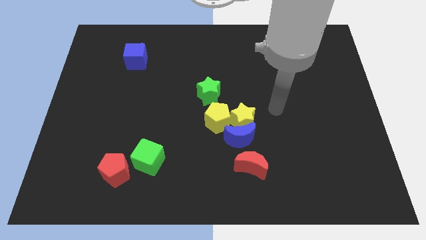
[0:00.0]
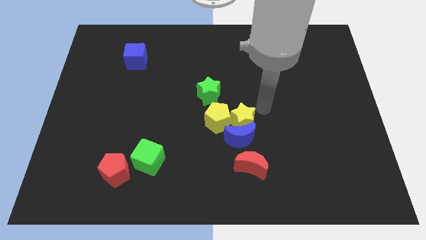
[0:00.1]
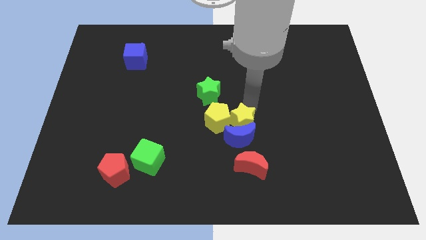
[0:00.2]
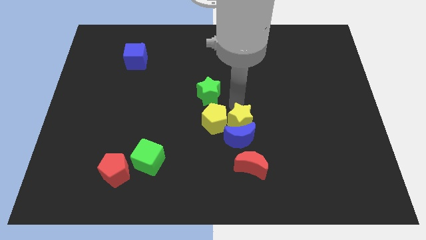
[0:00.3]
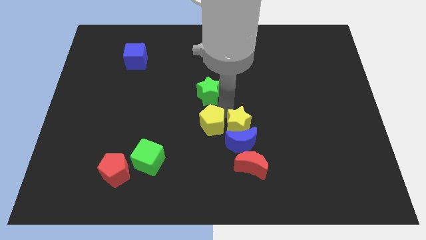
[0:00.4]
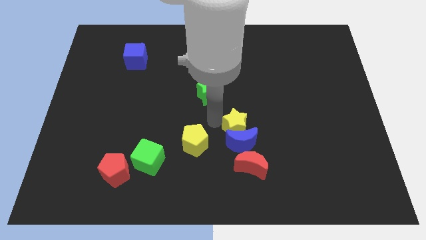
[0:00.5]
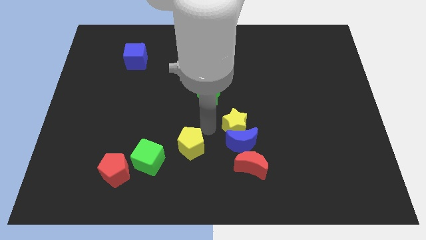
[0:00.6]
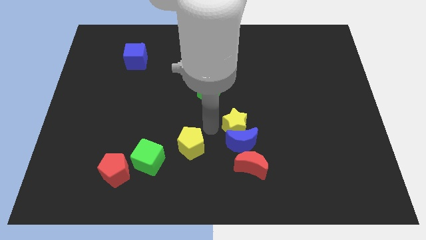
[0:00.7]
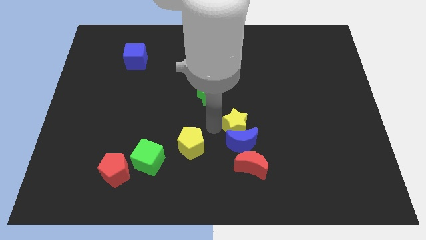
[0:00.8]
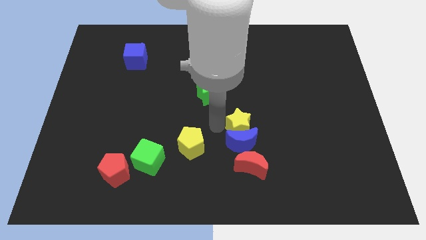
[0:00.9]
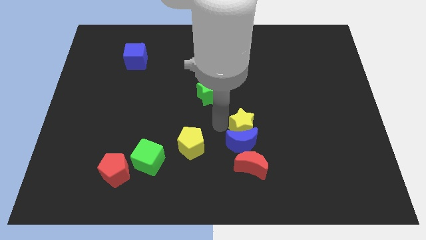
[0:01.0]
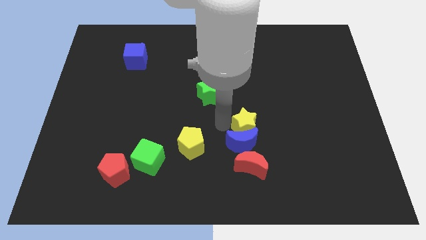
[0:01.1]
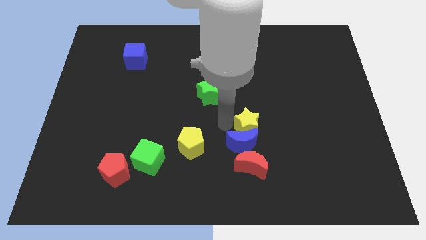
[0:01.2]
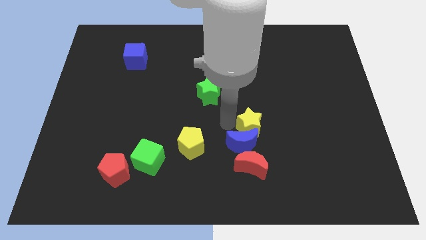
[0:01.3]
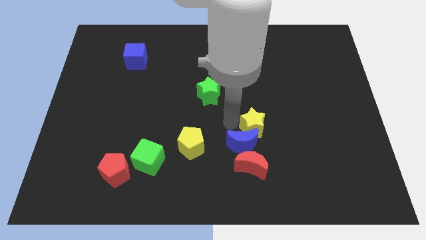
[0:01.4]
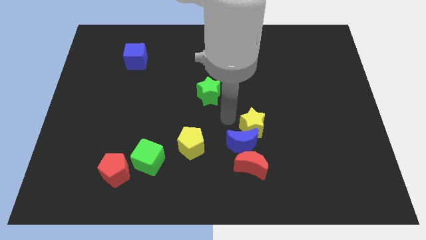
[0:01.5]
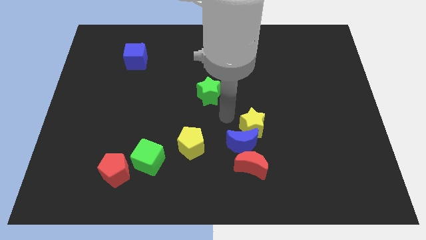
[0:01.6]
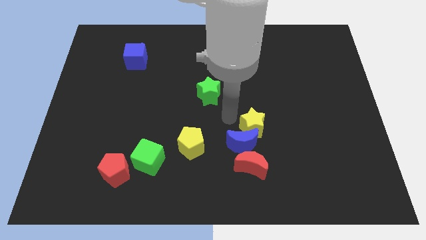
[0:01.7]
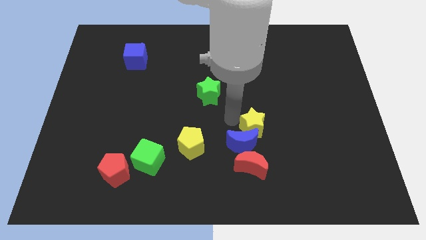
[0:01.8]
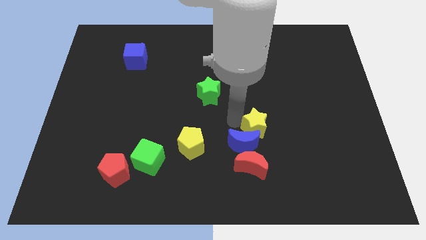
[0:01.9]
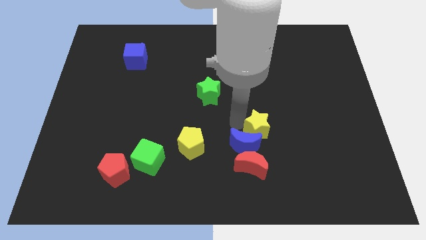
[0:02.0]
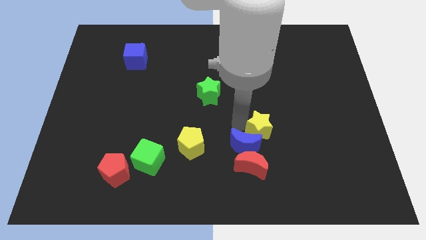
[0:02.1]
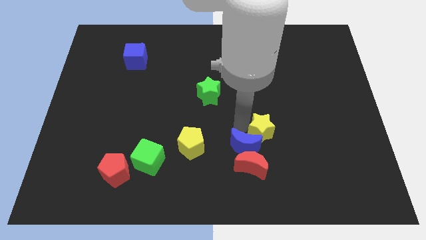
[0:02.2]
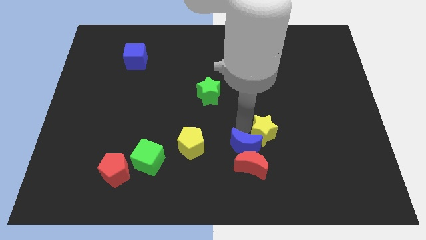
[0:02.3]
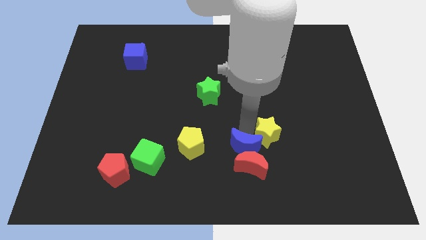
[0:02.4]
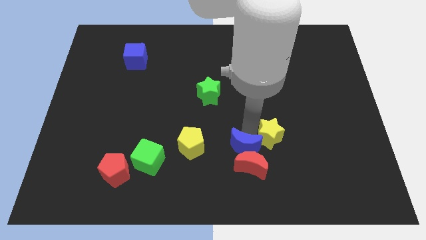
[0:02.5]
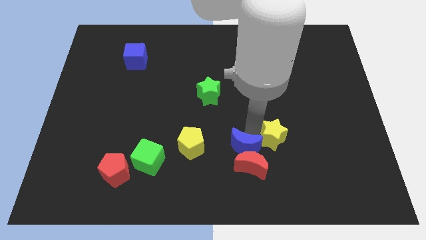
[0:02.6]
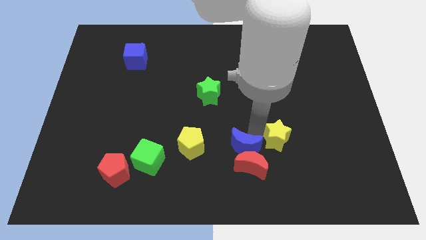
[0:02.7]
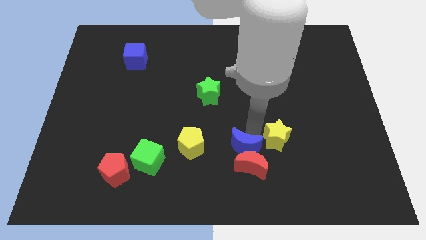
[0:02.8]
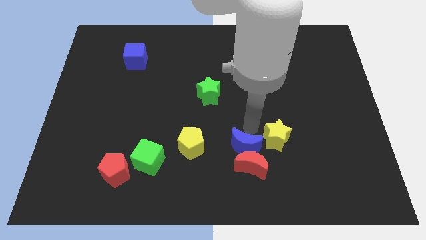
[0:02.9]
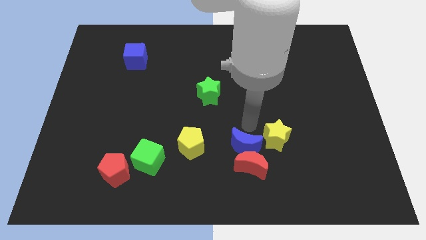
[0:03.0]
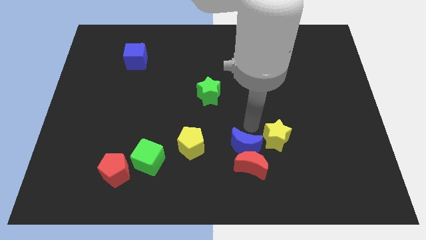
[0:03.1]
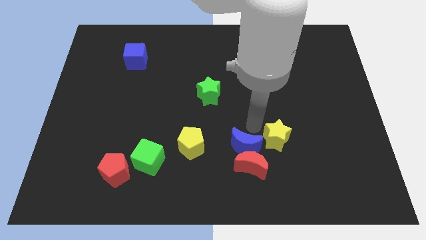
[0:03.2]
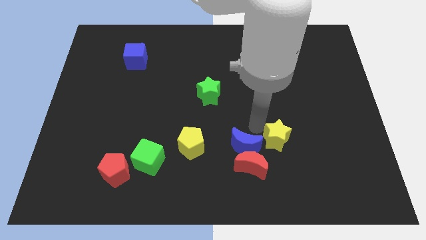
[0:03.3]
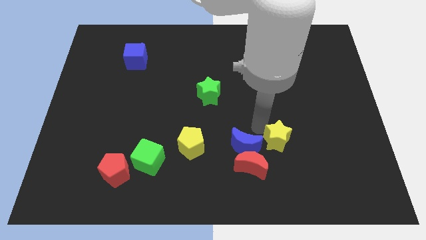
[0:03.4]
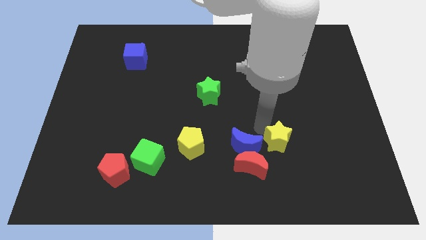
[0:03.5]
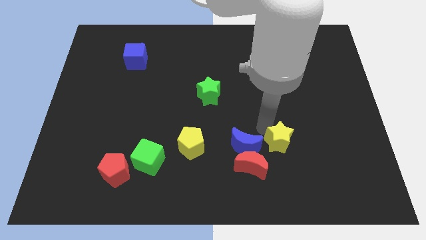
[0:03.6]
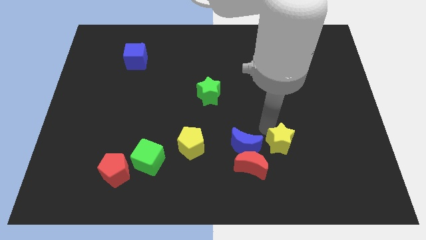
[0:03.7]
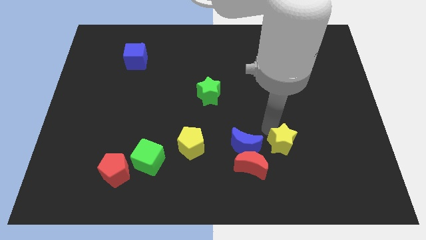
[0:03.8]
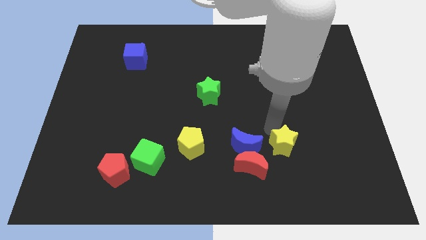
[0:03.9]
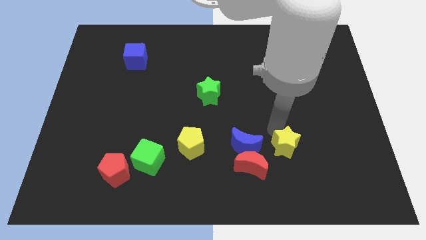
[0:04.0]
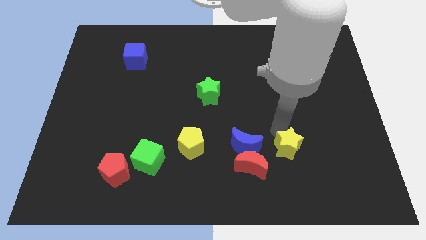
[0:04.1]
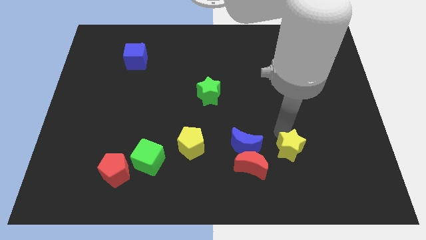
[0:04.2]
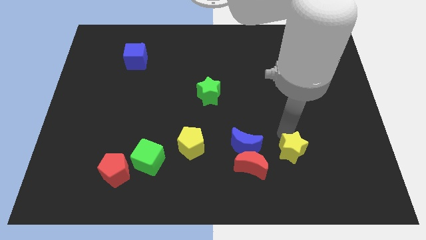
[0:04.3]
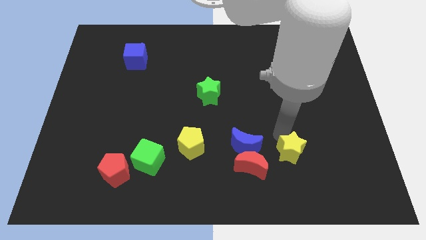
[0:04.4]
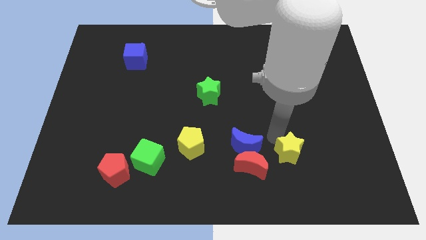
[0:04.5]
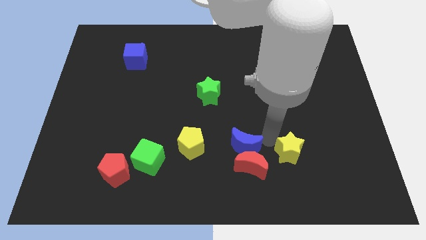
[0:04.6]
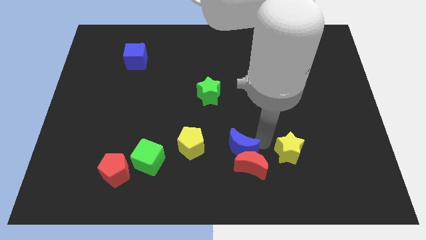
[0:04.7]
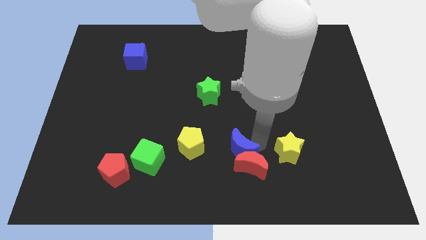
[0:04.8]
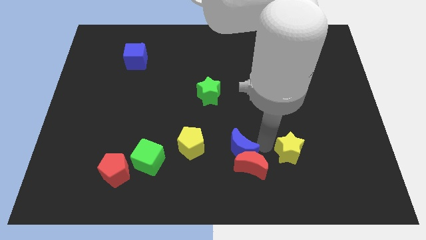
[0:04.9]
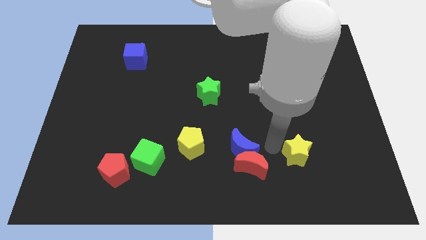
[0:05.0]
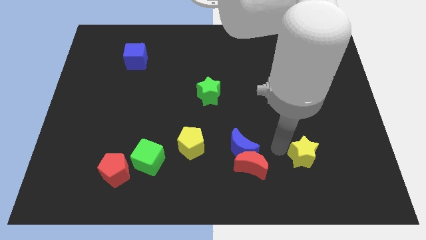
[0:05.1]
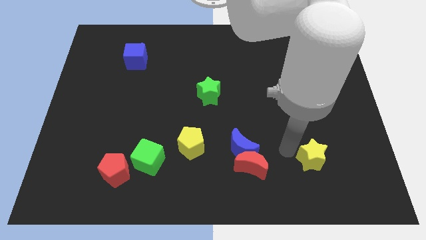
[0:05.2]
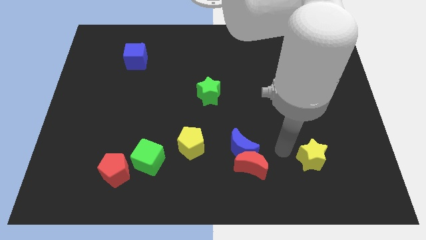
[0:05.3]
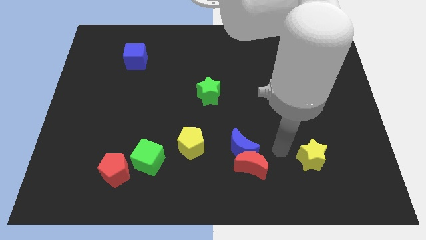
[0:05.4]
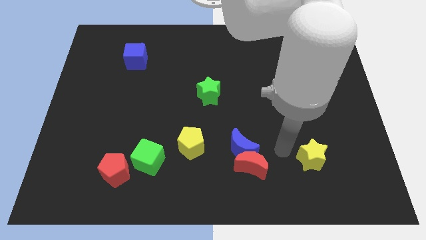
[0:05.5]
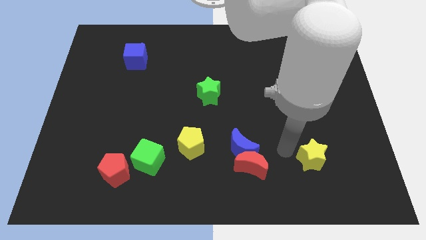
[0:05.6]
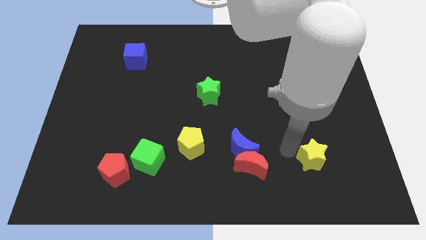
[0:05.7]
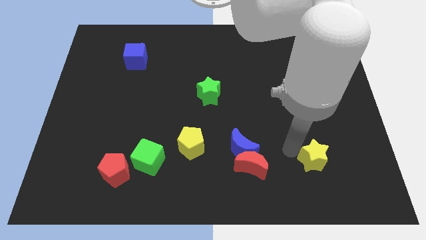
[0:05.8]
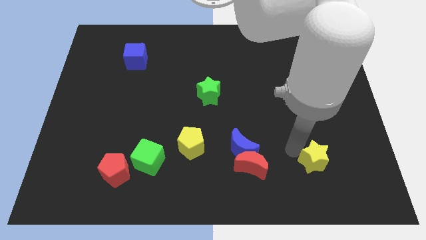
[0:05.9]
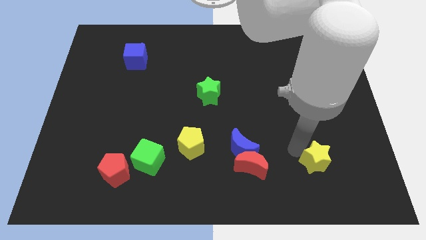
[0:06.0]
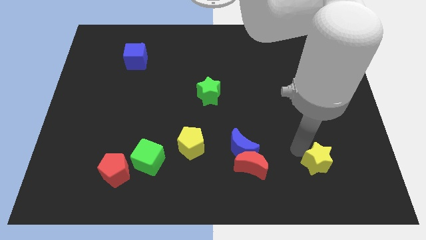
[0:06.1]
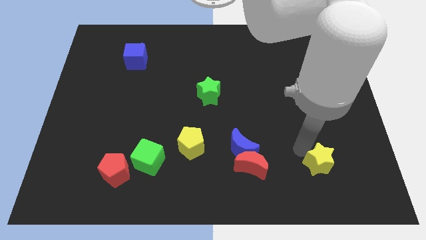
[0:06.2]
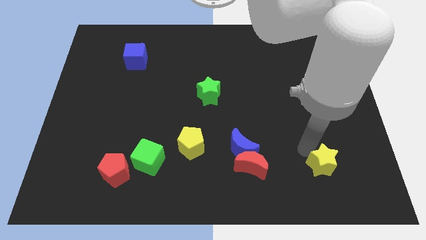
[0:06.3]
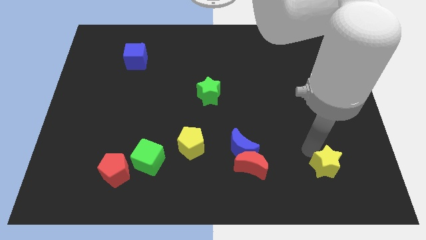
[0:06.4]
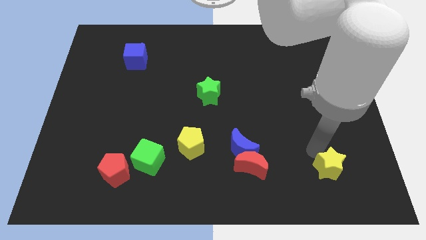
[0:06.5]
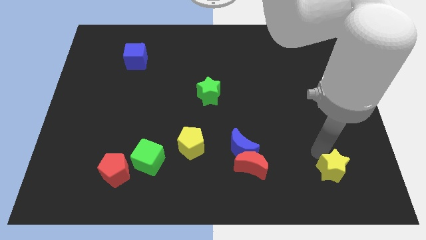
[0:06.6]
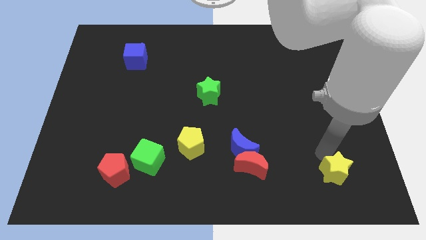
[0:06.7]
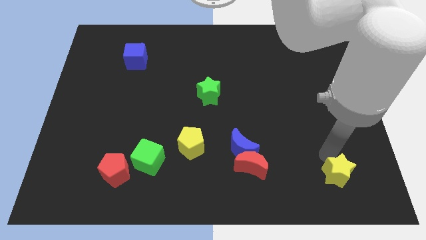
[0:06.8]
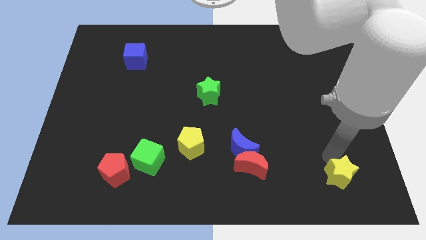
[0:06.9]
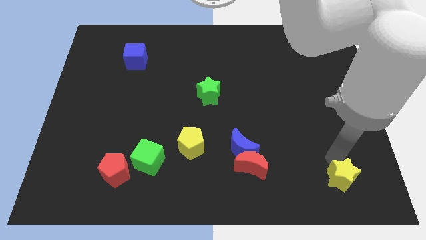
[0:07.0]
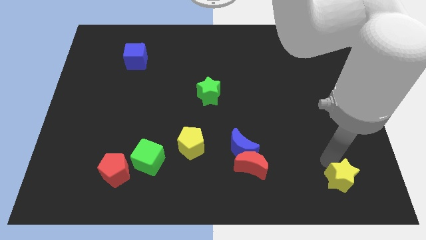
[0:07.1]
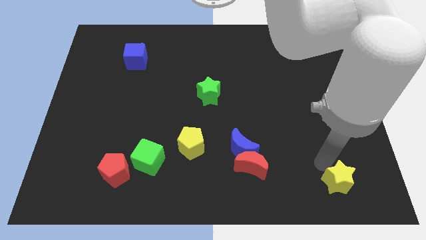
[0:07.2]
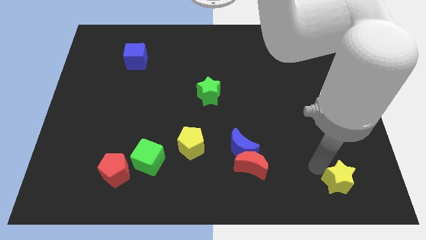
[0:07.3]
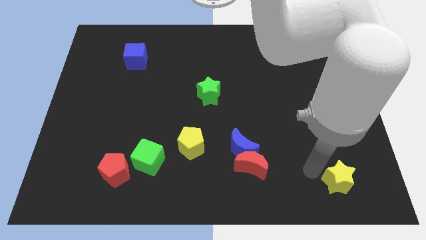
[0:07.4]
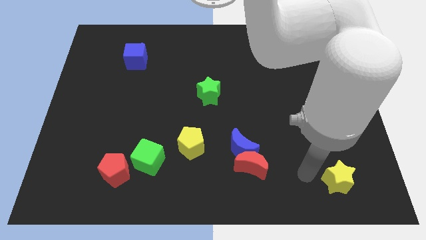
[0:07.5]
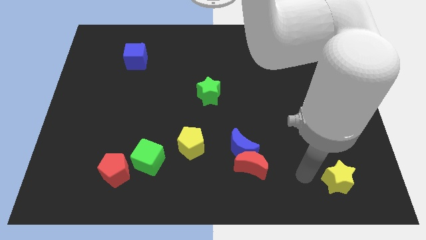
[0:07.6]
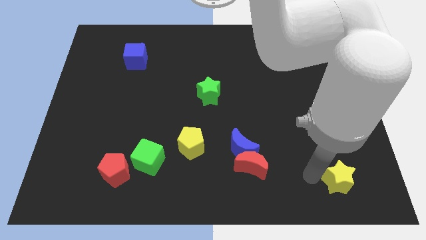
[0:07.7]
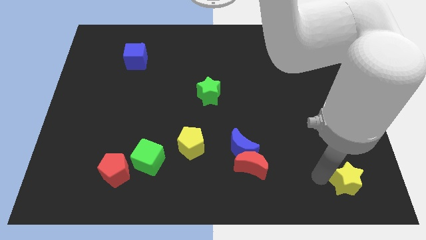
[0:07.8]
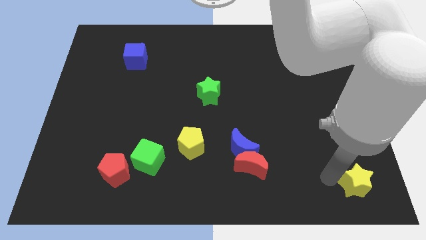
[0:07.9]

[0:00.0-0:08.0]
put the yellow star to the bottom right corner
